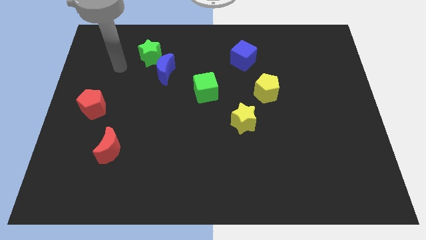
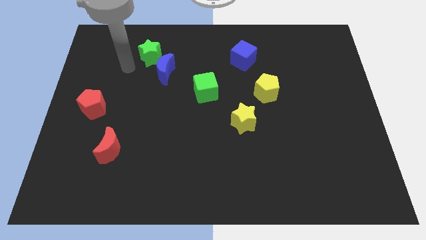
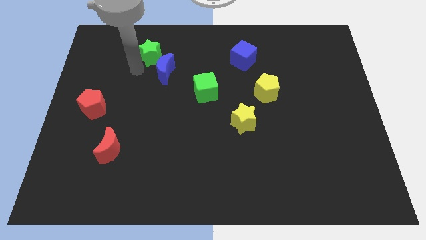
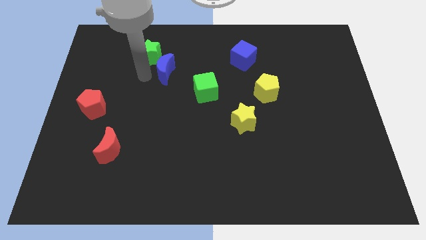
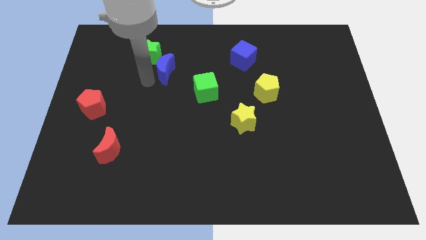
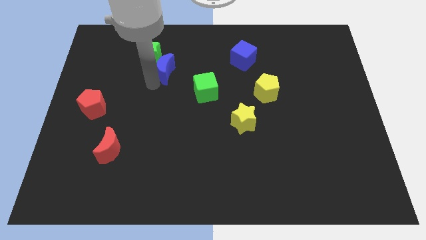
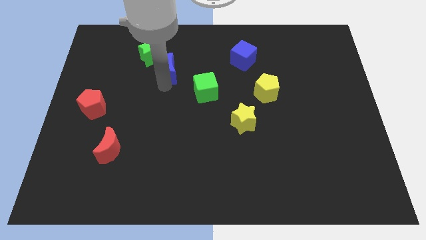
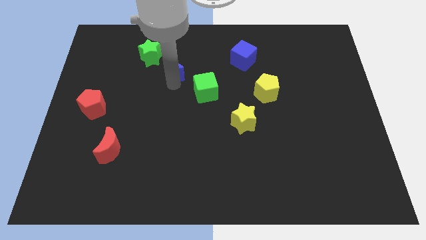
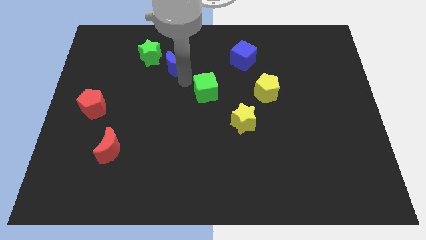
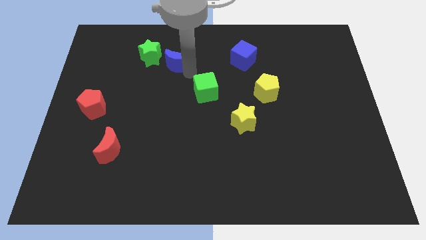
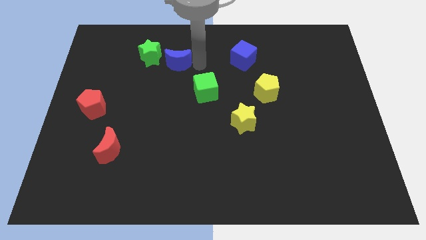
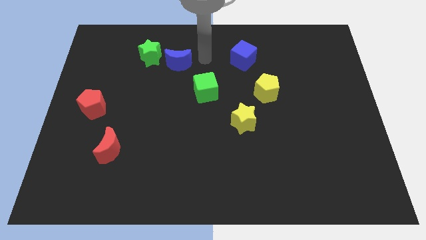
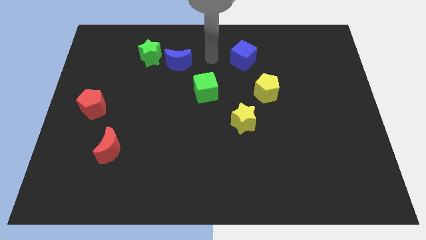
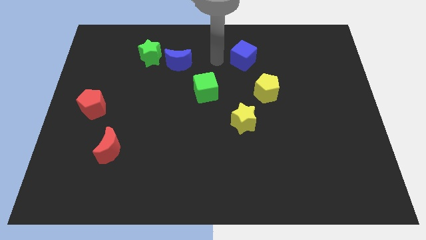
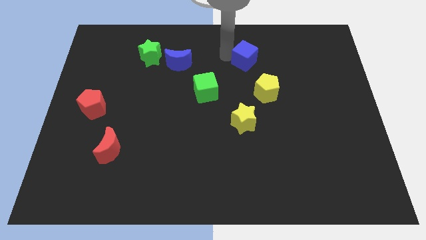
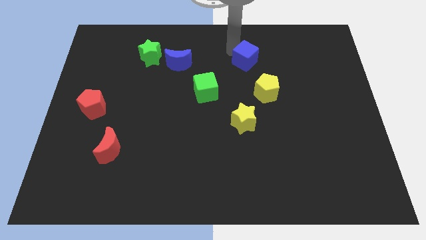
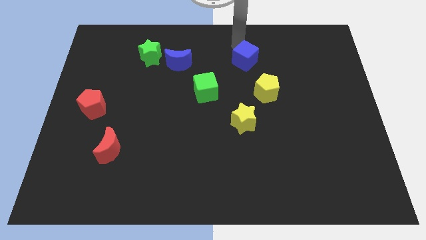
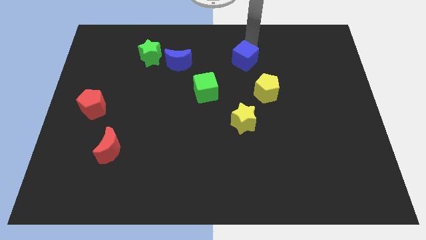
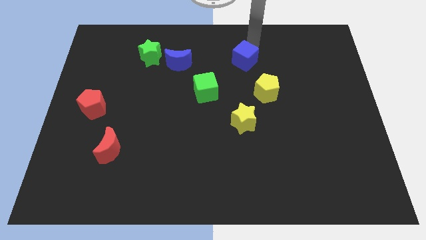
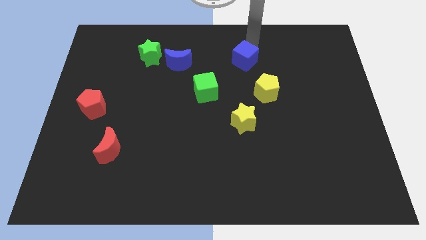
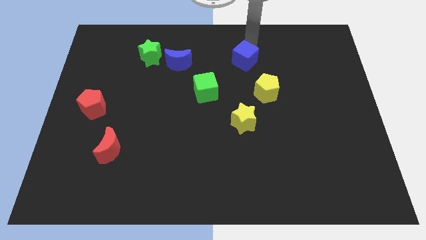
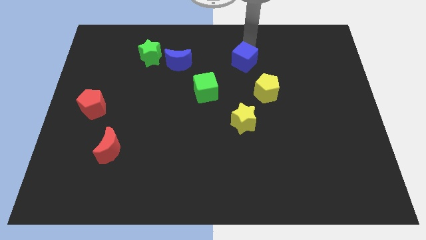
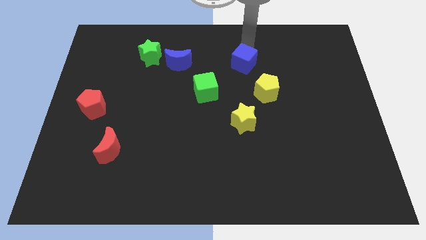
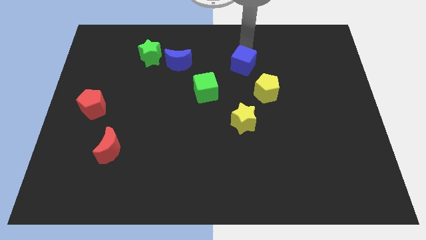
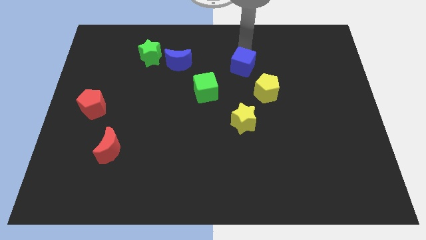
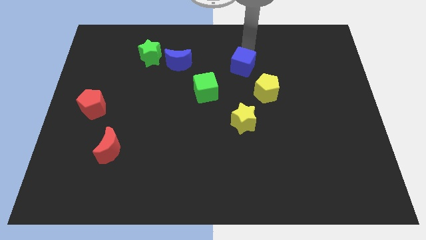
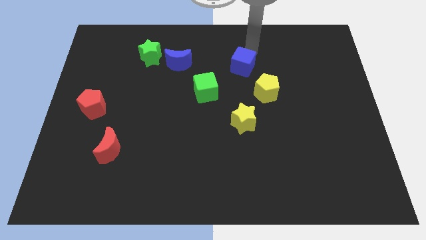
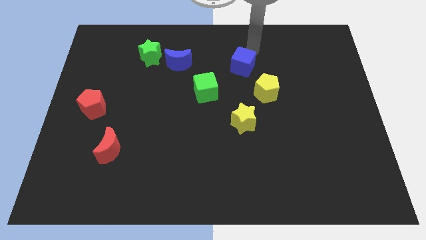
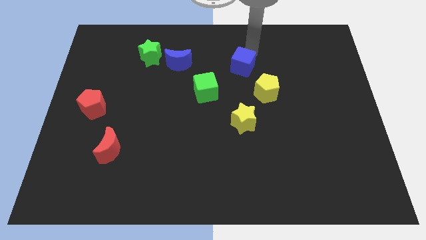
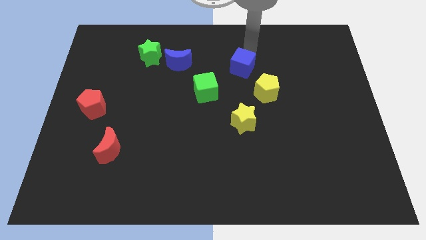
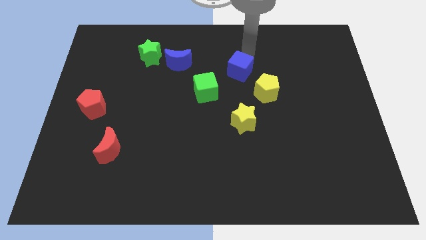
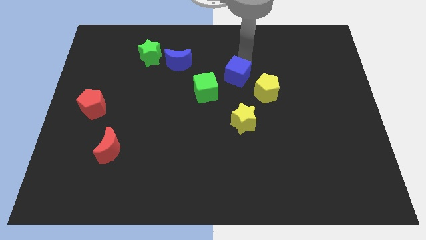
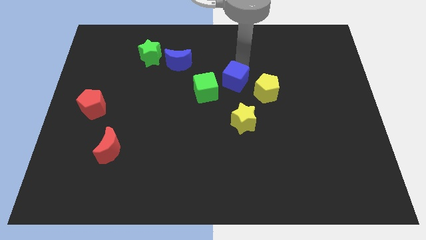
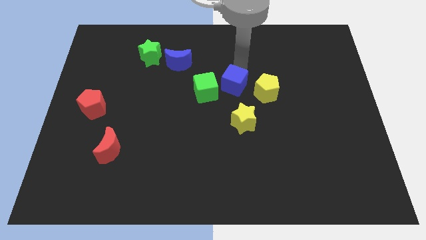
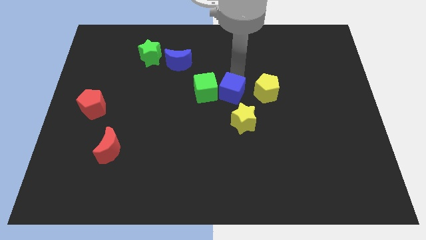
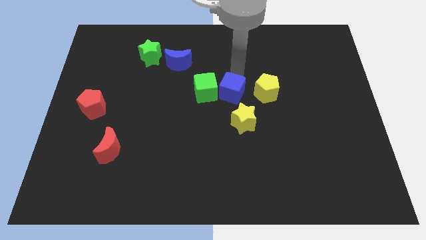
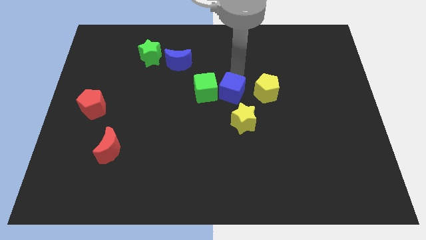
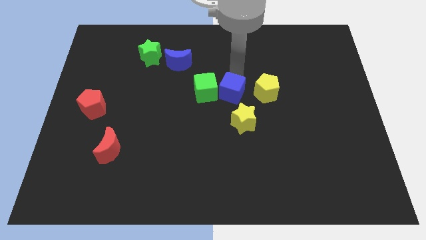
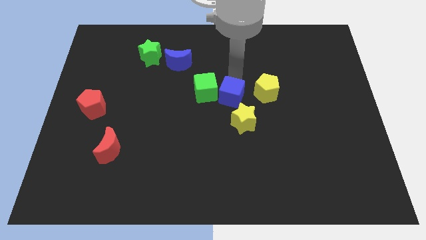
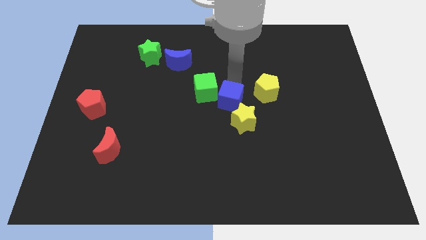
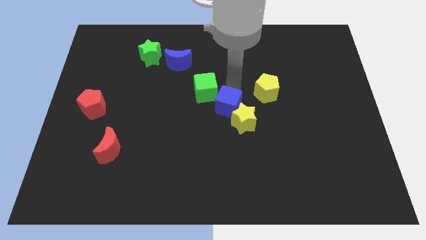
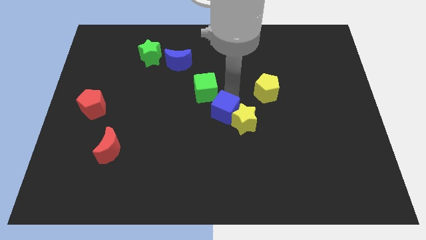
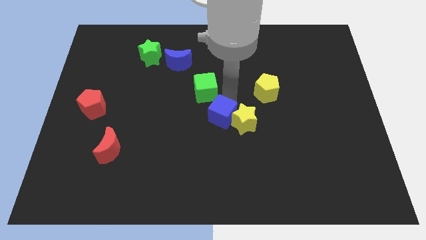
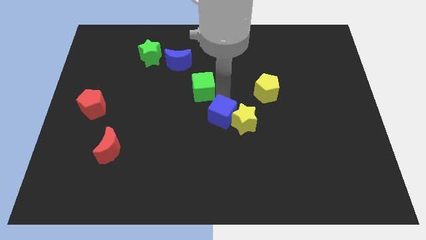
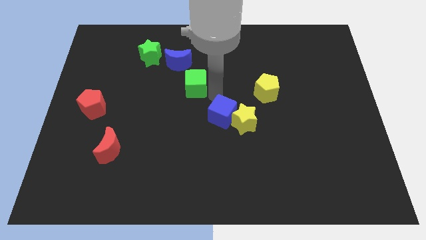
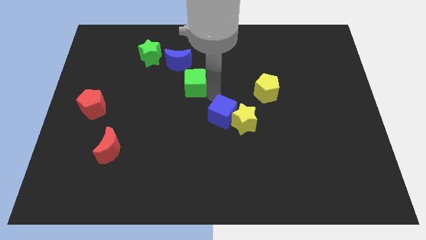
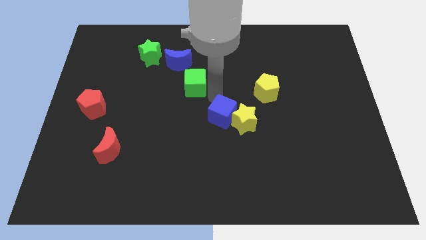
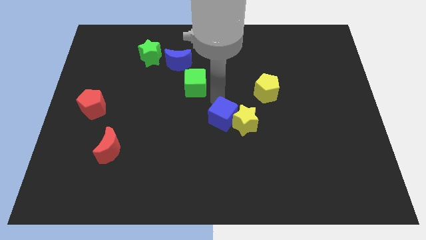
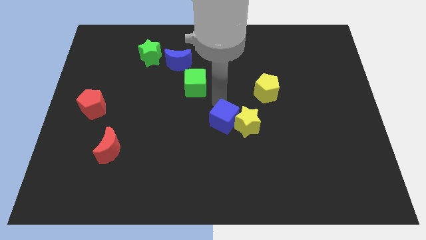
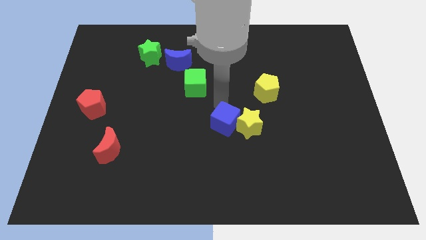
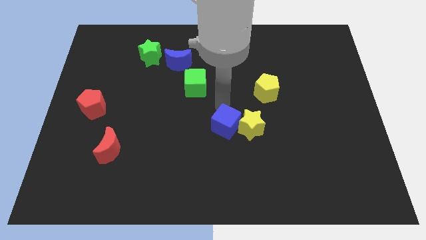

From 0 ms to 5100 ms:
slide the blue cube down

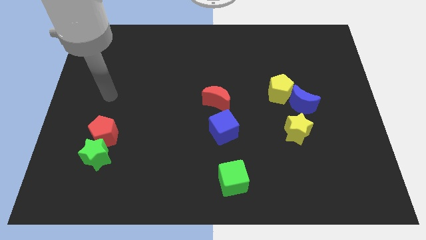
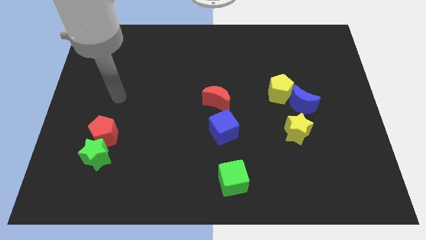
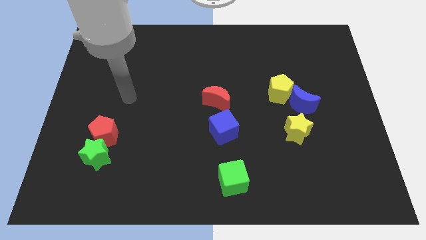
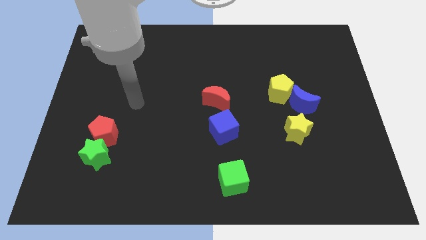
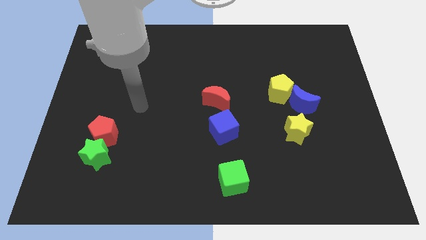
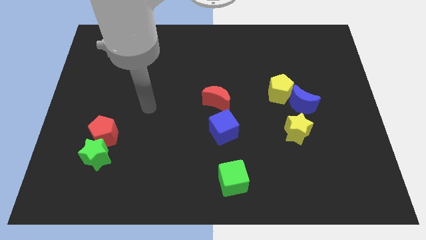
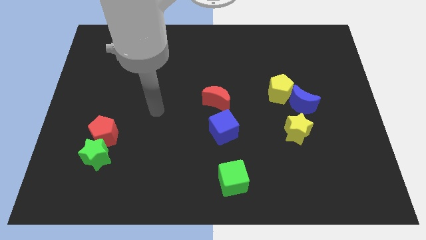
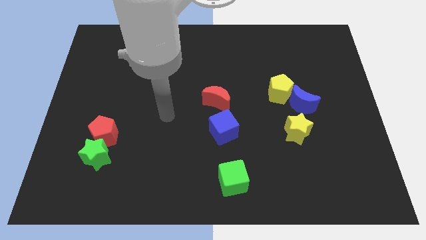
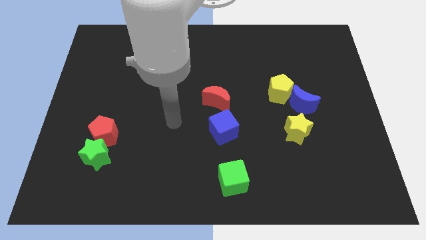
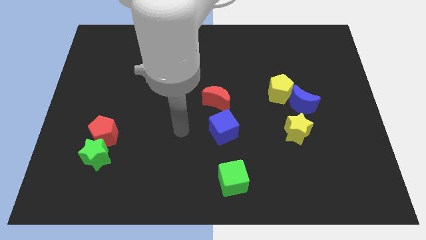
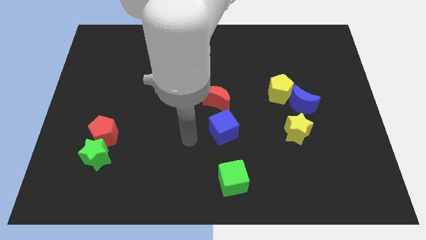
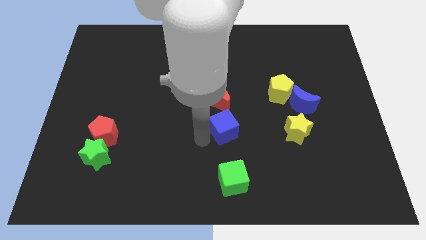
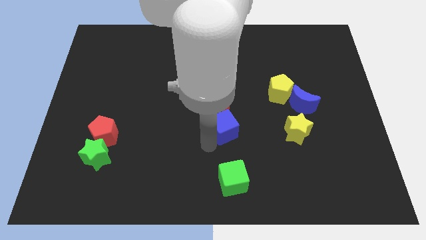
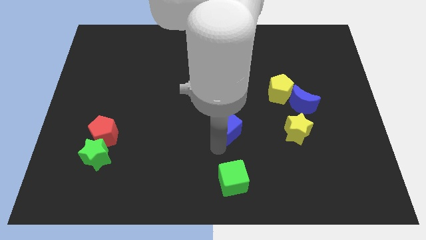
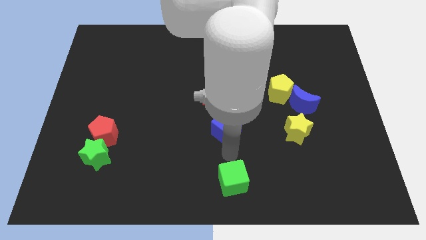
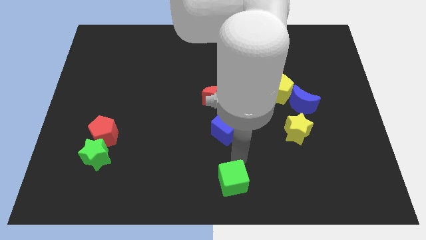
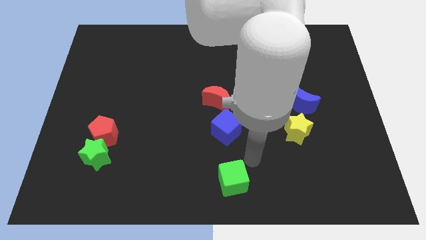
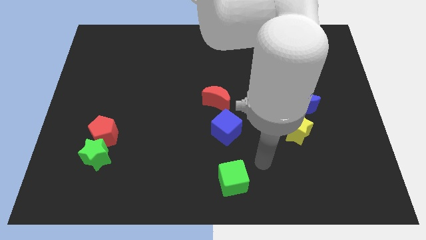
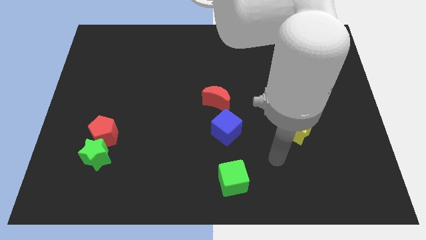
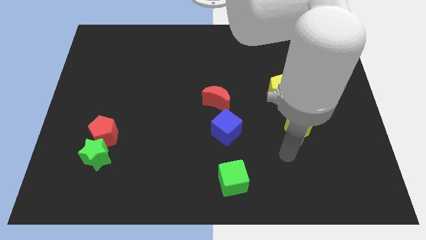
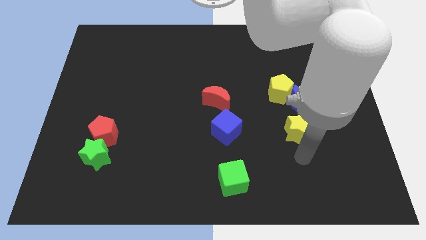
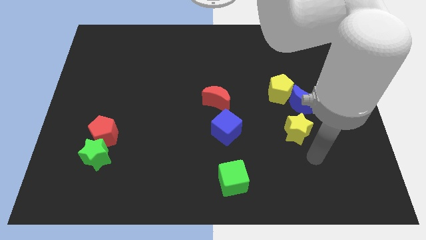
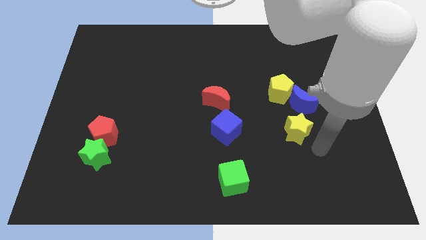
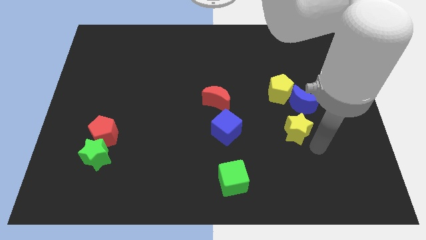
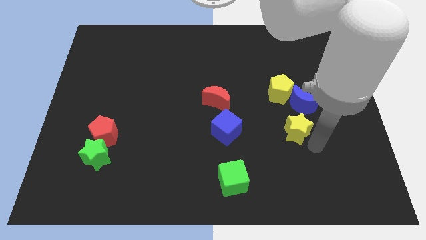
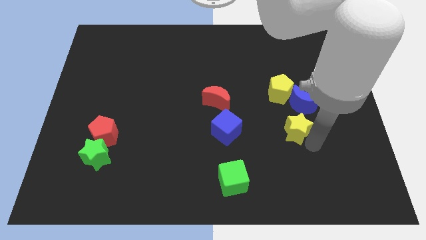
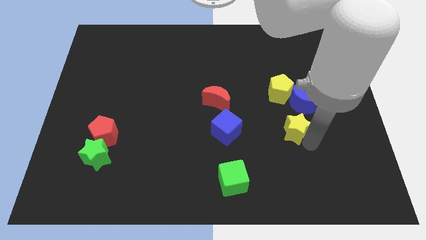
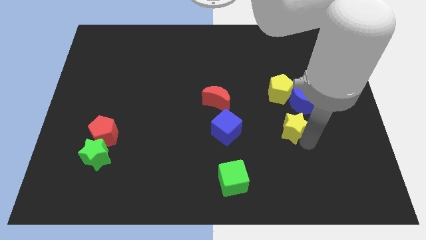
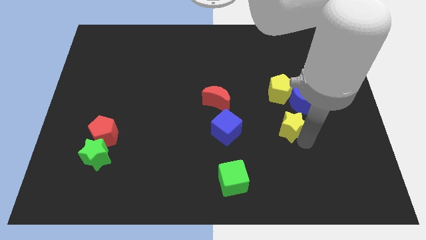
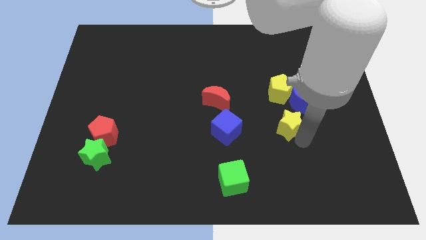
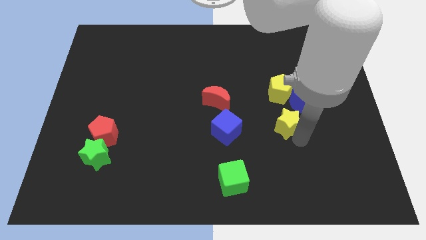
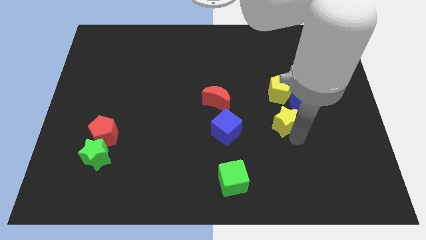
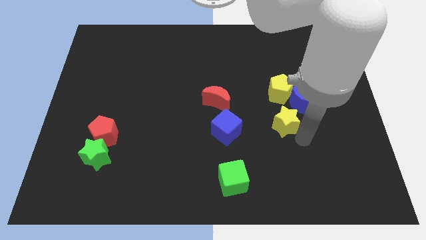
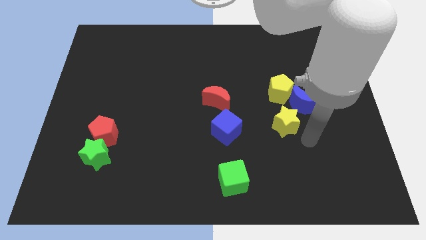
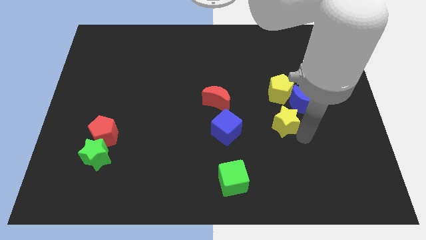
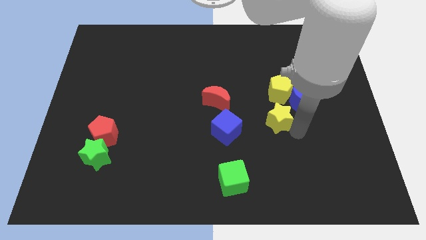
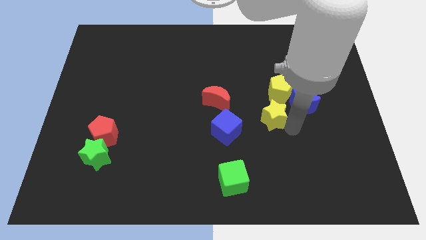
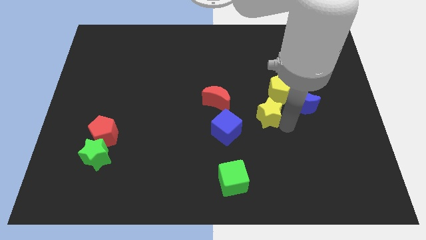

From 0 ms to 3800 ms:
push the yellow star up and to the left diagonally slightly
